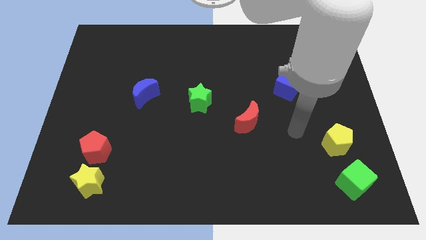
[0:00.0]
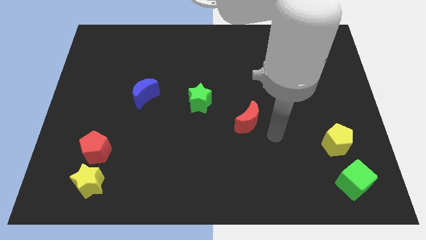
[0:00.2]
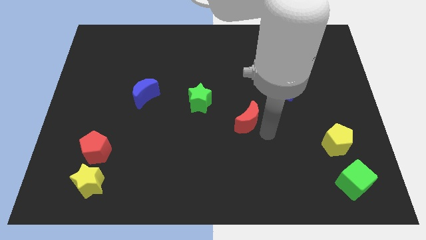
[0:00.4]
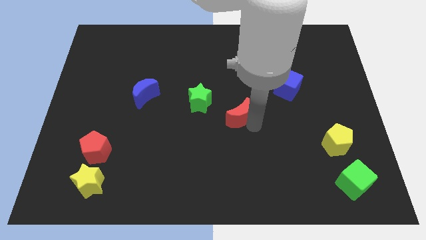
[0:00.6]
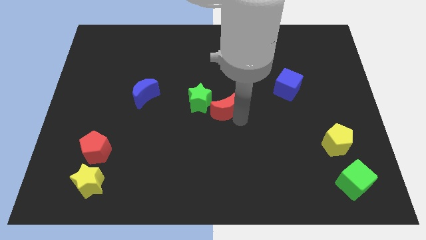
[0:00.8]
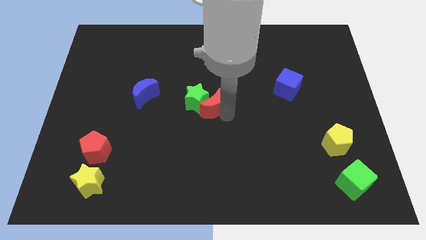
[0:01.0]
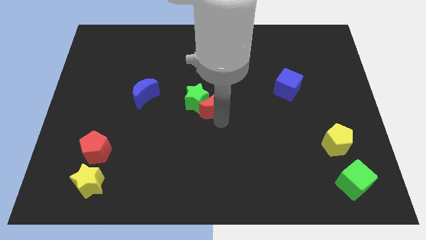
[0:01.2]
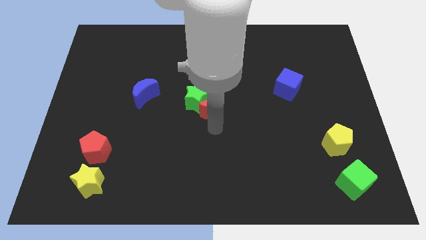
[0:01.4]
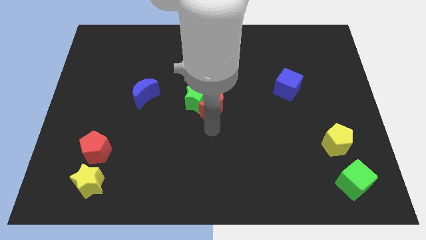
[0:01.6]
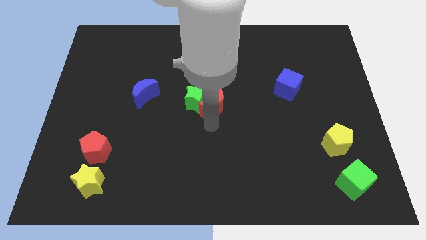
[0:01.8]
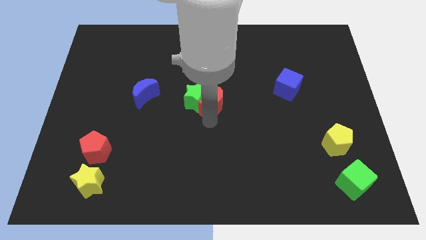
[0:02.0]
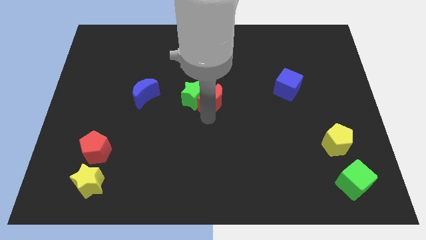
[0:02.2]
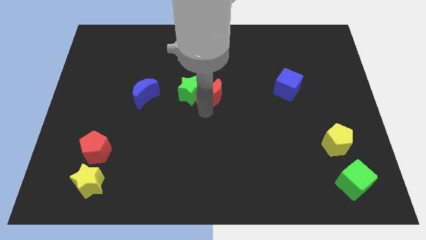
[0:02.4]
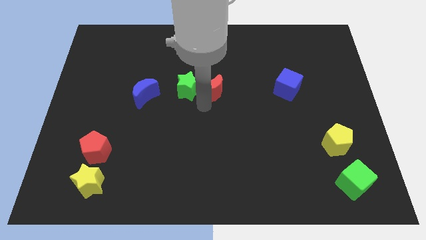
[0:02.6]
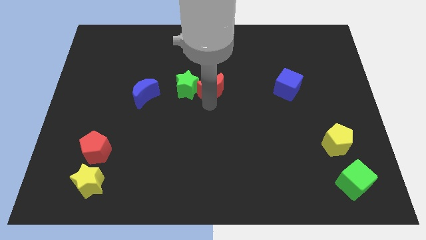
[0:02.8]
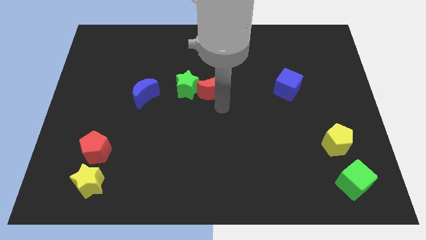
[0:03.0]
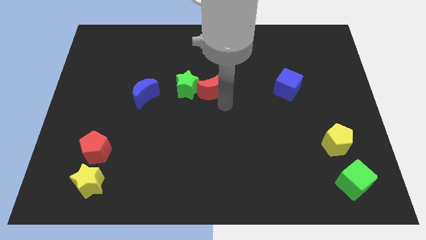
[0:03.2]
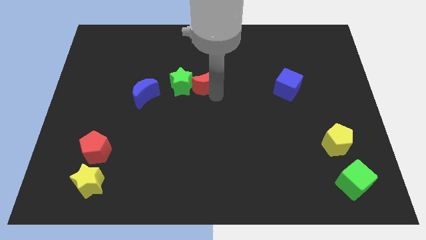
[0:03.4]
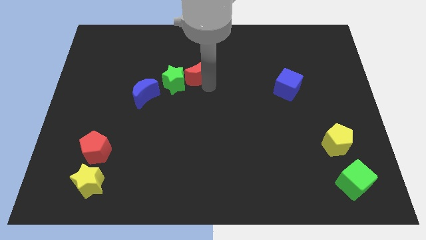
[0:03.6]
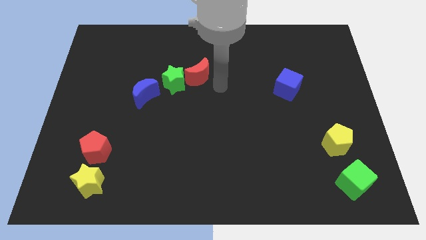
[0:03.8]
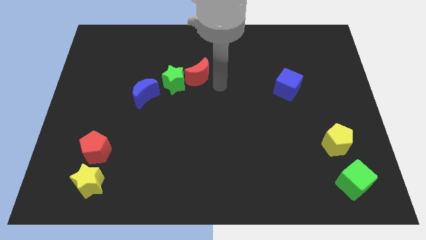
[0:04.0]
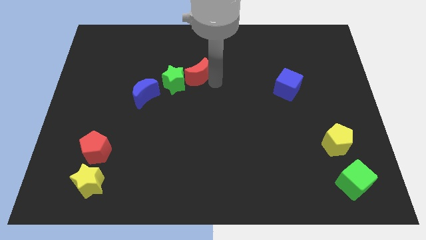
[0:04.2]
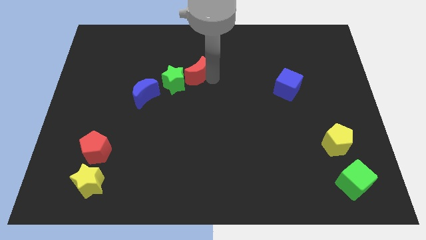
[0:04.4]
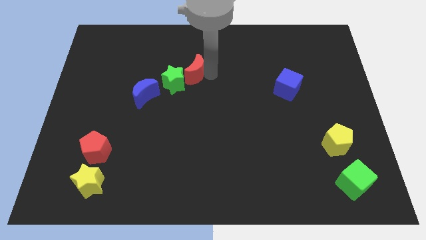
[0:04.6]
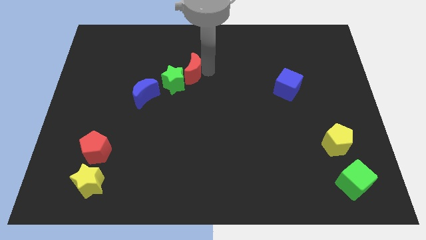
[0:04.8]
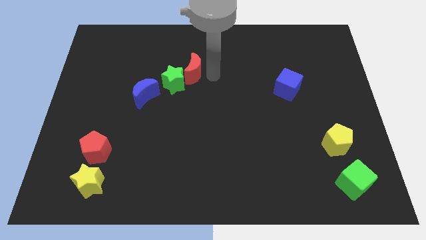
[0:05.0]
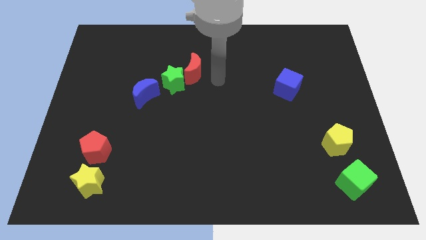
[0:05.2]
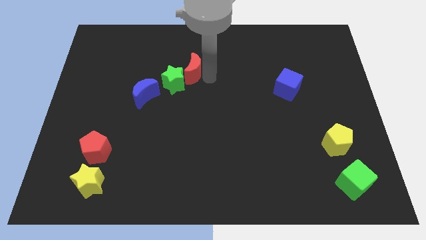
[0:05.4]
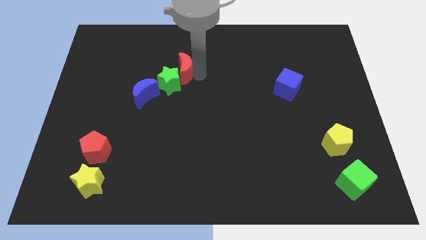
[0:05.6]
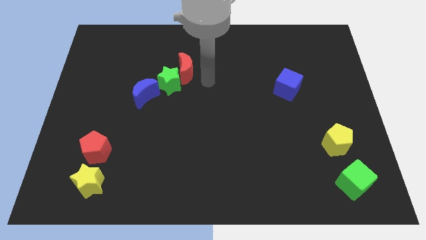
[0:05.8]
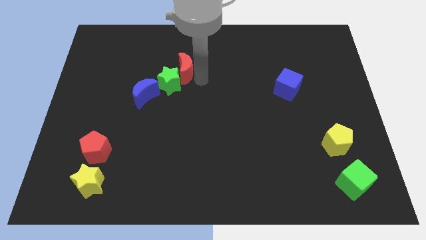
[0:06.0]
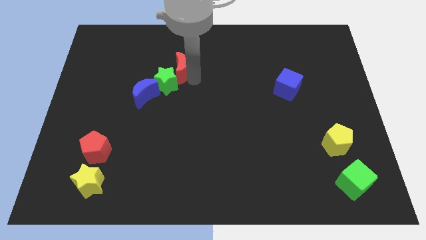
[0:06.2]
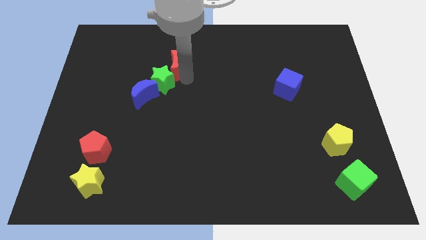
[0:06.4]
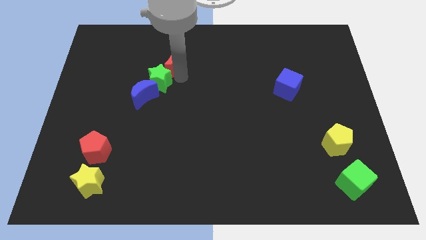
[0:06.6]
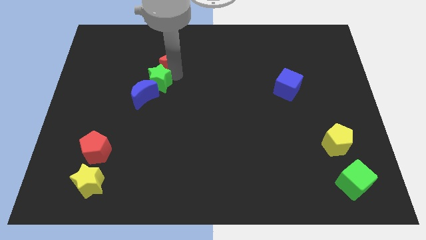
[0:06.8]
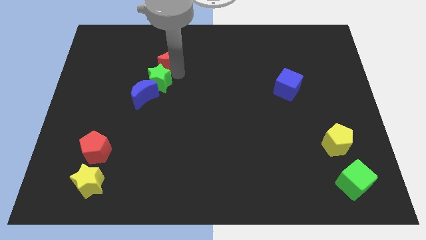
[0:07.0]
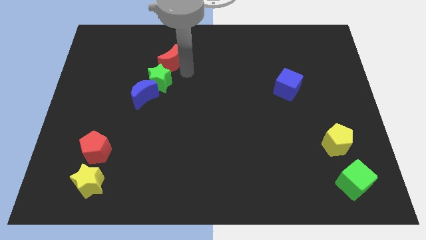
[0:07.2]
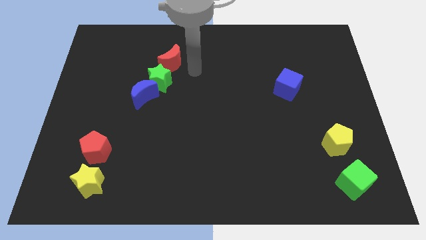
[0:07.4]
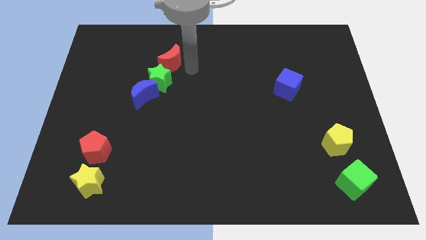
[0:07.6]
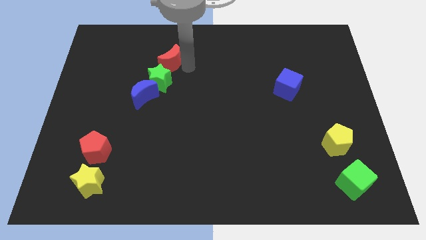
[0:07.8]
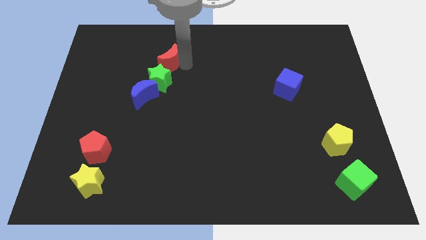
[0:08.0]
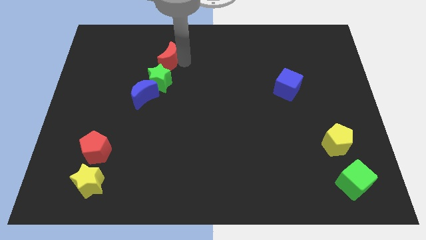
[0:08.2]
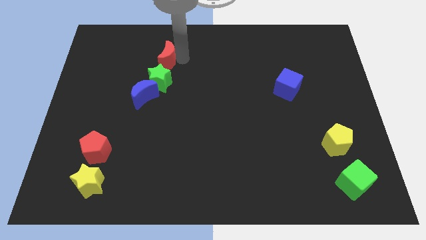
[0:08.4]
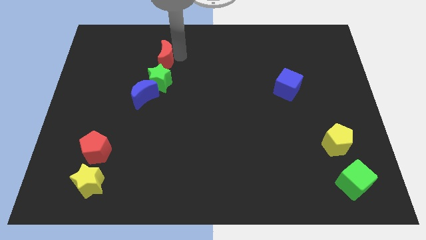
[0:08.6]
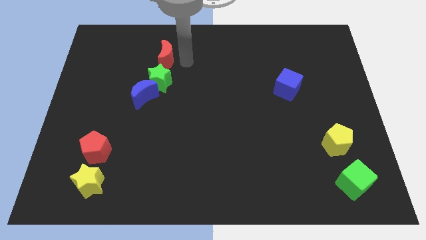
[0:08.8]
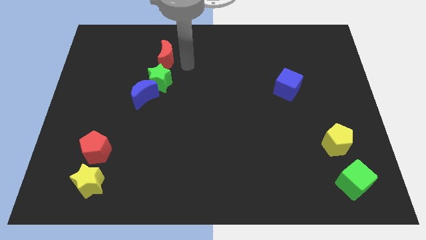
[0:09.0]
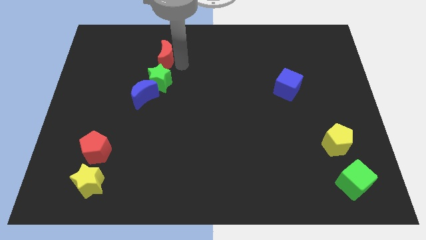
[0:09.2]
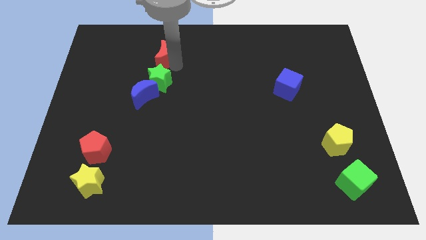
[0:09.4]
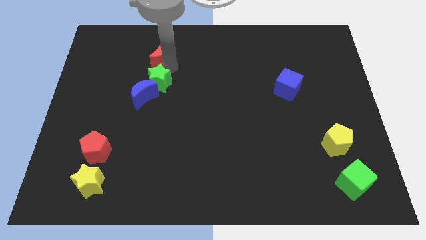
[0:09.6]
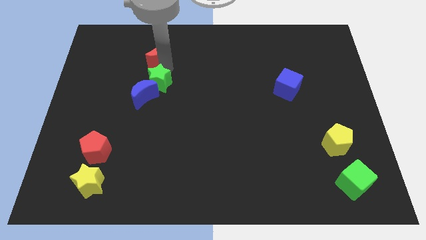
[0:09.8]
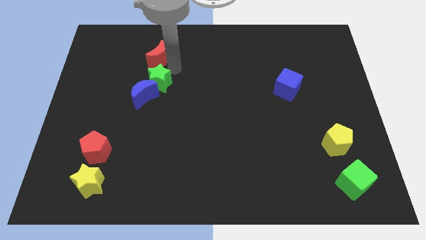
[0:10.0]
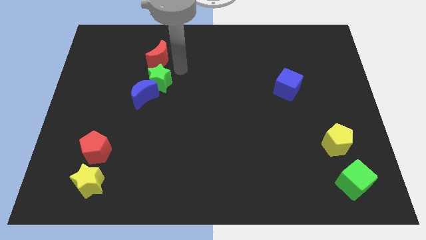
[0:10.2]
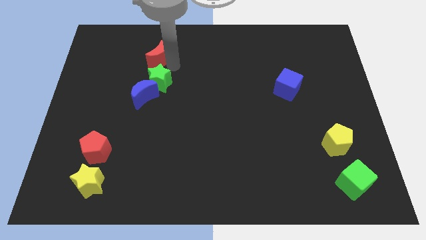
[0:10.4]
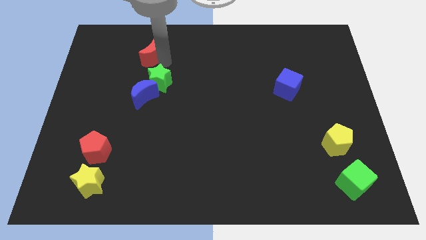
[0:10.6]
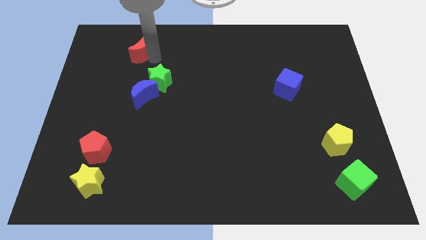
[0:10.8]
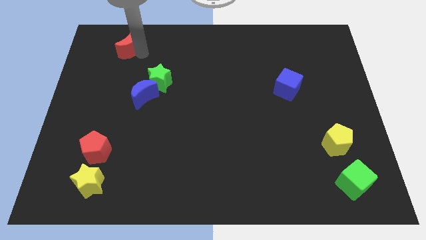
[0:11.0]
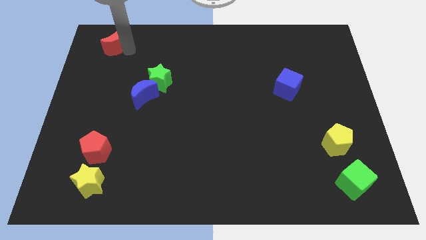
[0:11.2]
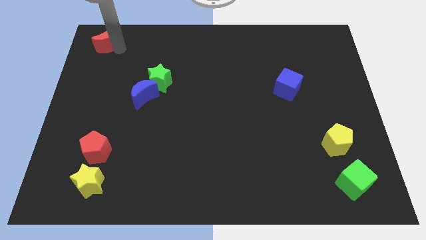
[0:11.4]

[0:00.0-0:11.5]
slide the red moon to the top left of the board
